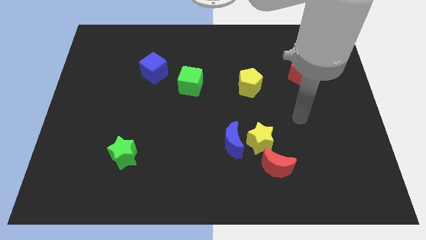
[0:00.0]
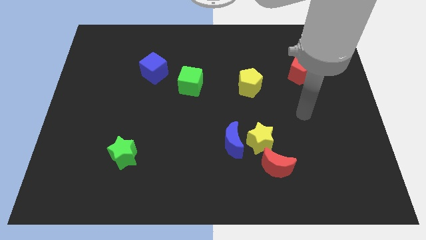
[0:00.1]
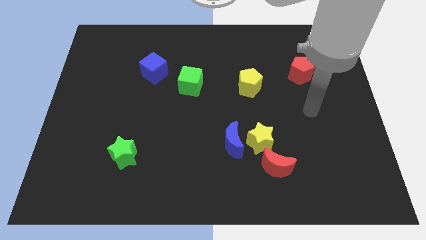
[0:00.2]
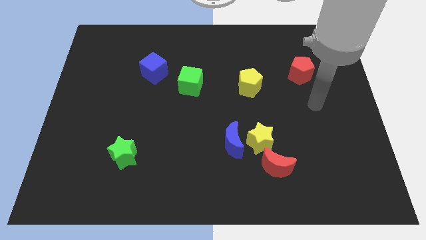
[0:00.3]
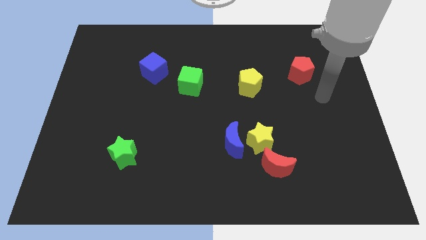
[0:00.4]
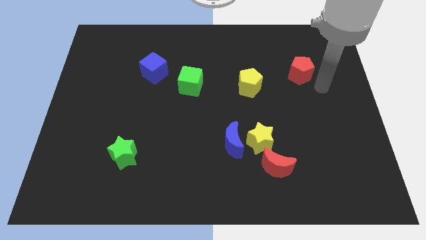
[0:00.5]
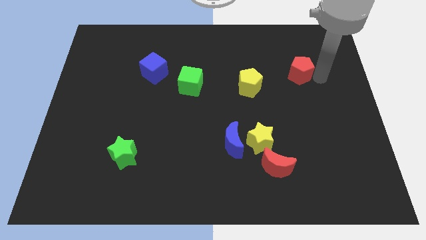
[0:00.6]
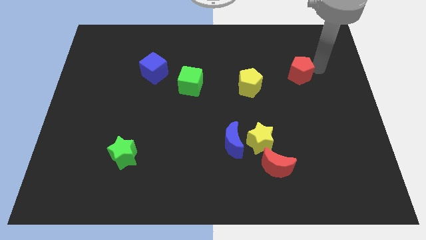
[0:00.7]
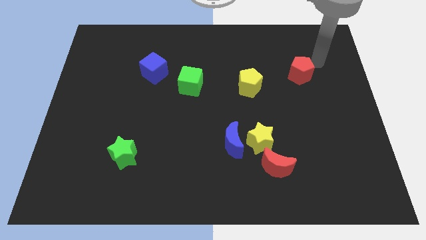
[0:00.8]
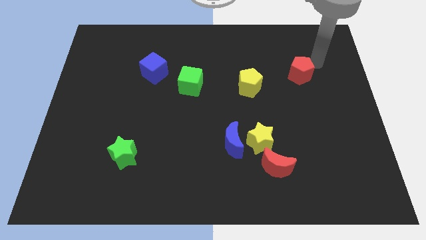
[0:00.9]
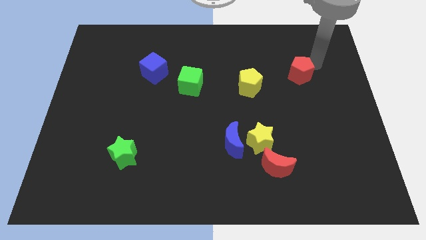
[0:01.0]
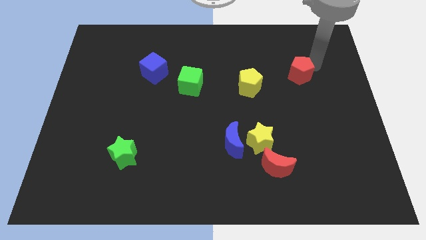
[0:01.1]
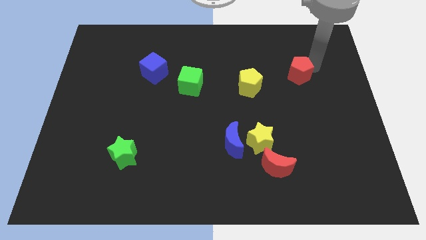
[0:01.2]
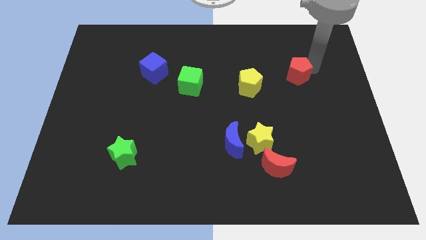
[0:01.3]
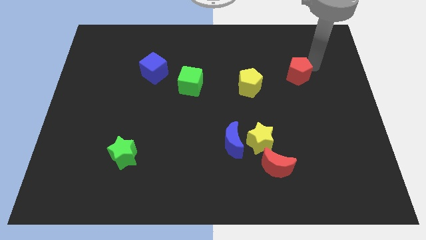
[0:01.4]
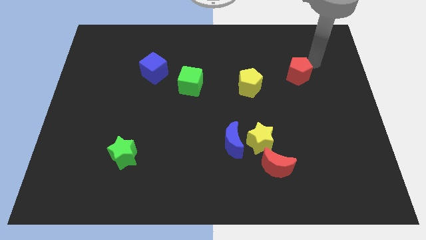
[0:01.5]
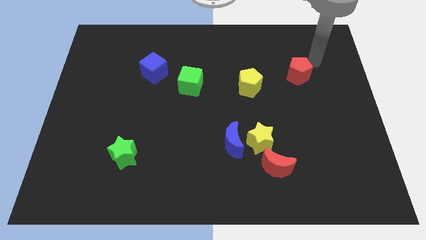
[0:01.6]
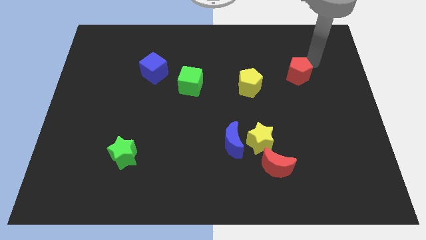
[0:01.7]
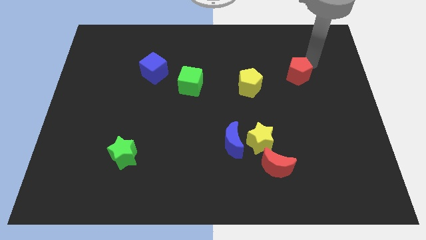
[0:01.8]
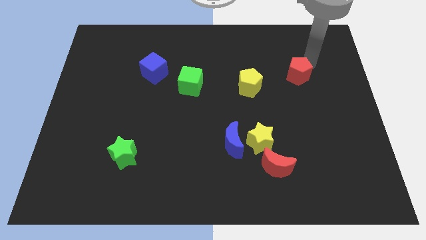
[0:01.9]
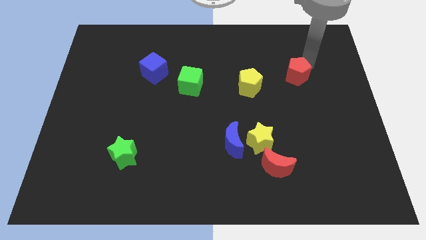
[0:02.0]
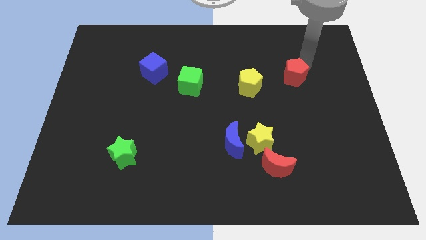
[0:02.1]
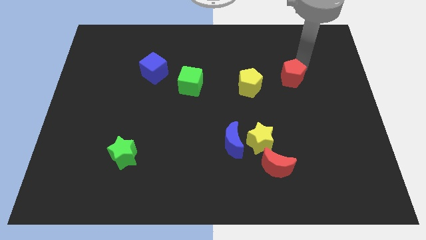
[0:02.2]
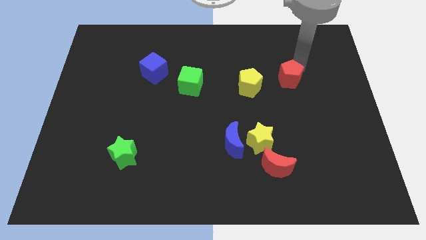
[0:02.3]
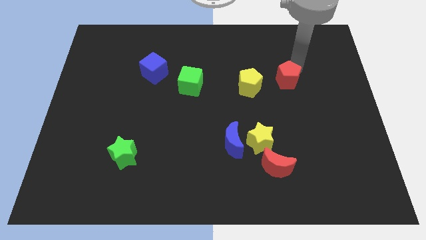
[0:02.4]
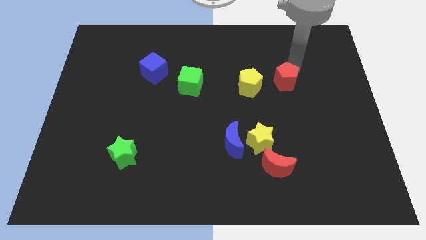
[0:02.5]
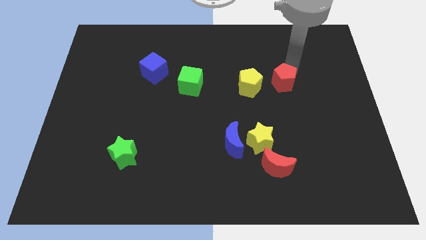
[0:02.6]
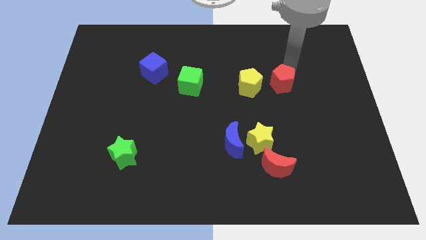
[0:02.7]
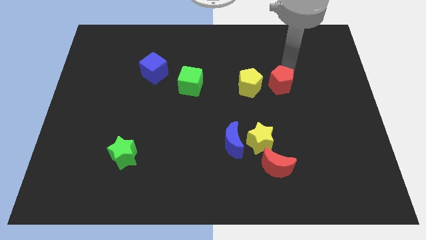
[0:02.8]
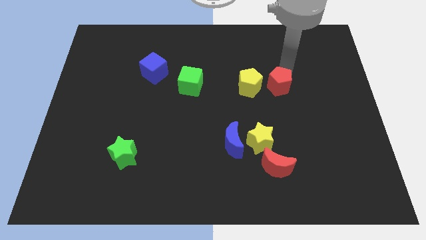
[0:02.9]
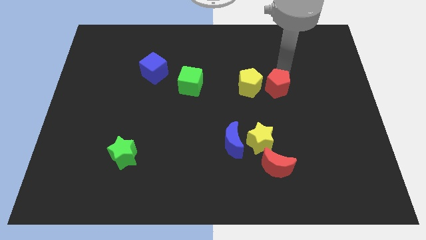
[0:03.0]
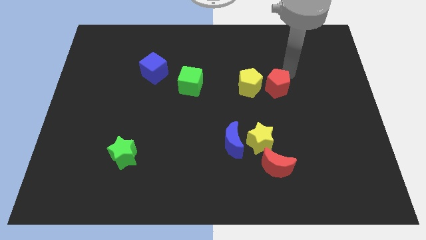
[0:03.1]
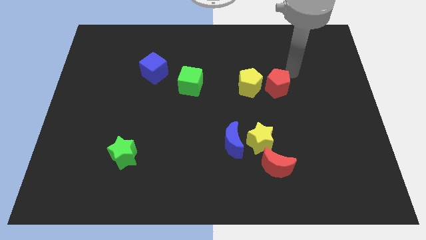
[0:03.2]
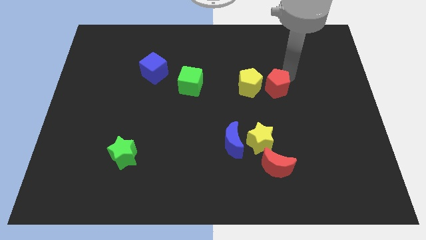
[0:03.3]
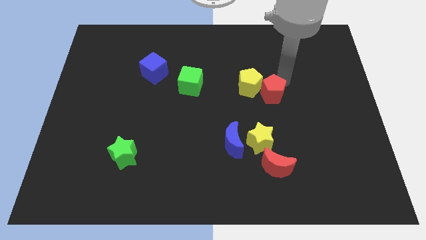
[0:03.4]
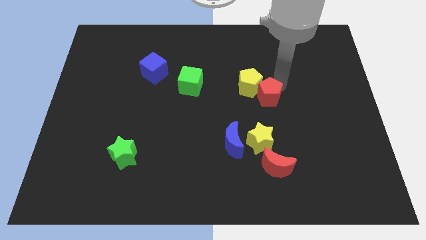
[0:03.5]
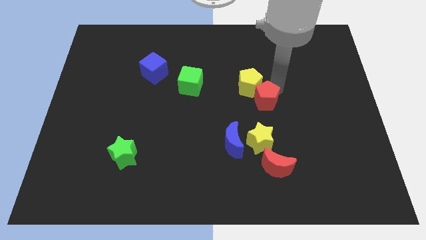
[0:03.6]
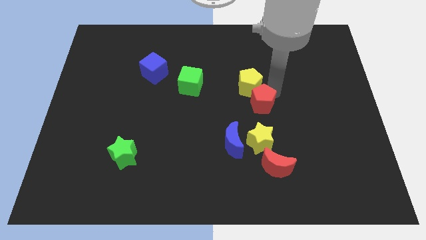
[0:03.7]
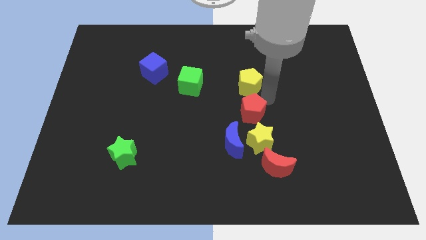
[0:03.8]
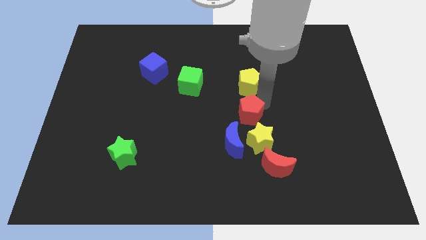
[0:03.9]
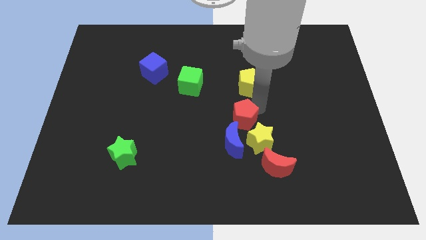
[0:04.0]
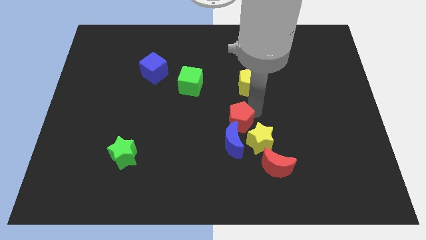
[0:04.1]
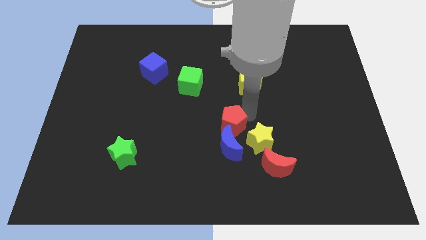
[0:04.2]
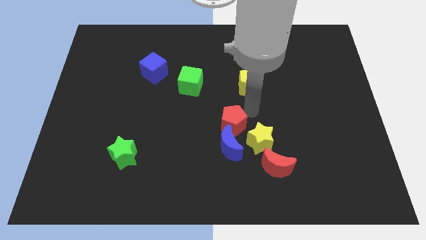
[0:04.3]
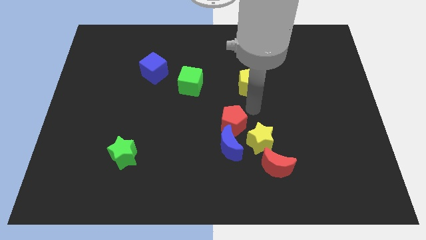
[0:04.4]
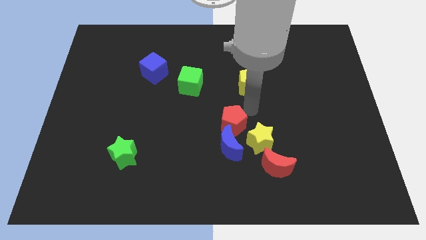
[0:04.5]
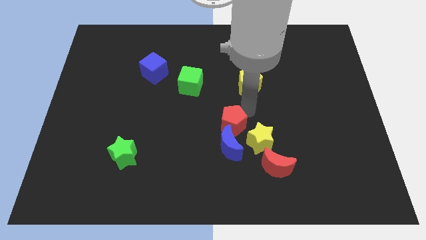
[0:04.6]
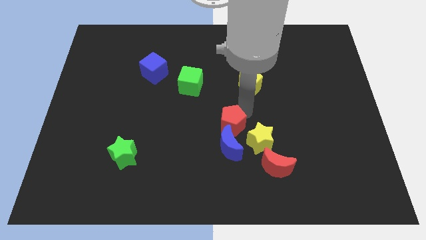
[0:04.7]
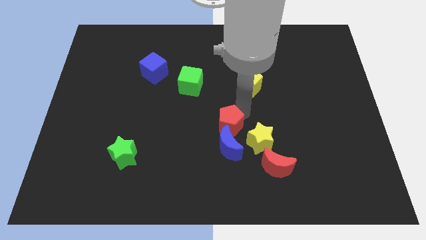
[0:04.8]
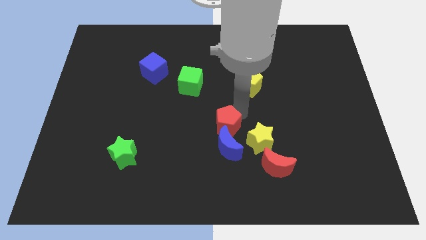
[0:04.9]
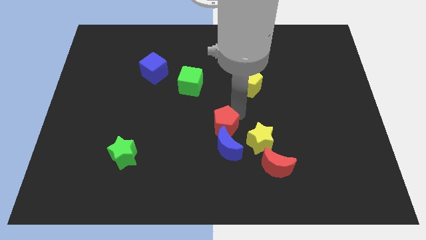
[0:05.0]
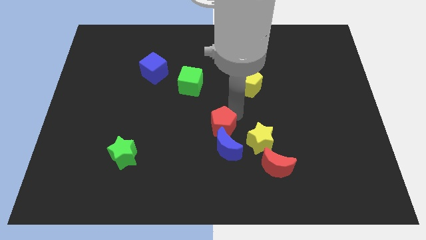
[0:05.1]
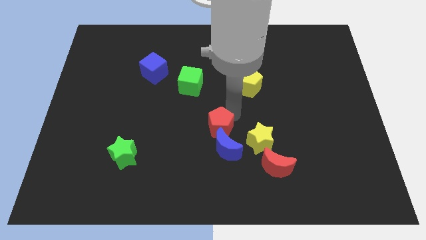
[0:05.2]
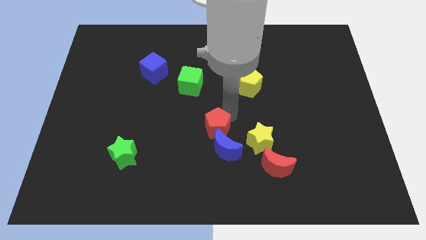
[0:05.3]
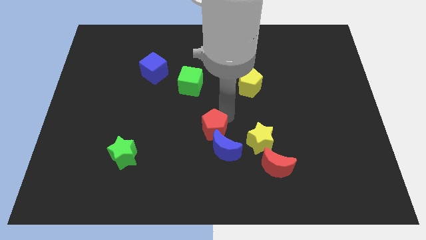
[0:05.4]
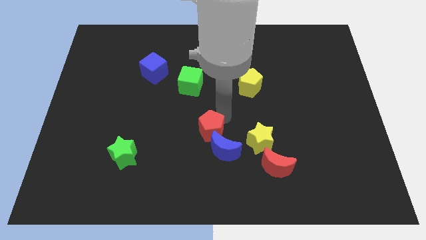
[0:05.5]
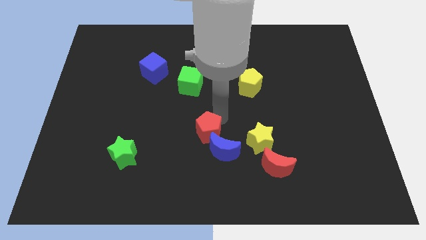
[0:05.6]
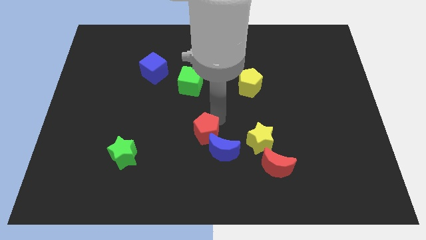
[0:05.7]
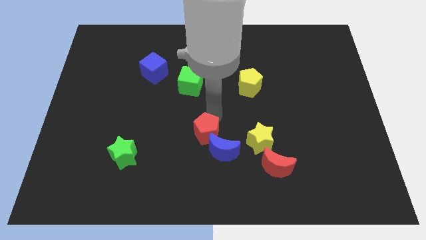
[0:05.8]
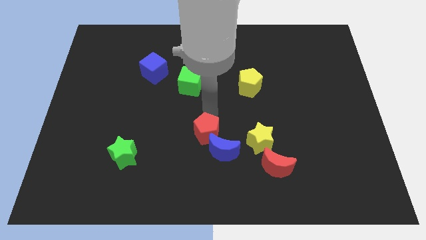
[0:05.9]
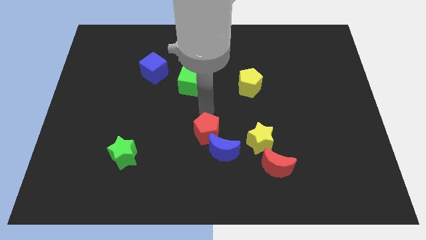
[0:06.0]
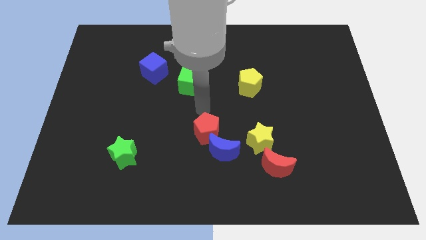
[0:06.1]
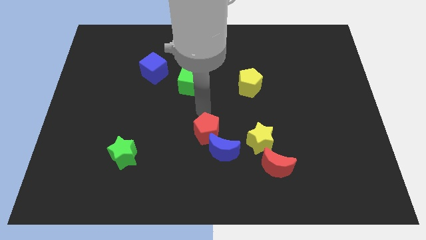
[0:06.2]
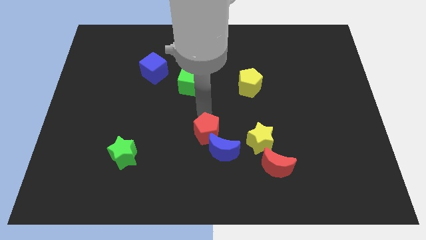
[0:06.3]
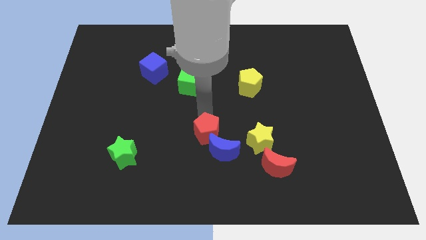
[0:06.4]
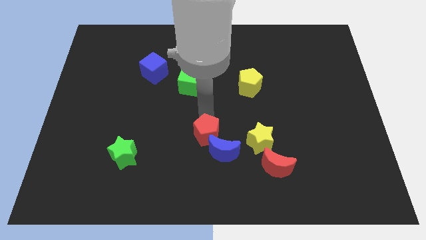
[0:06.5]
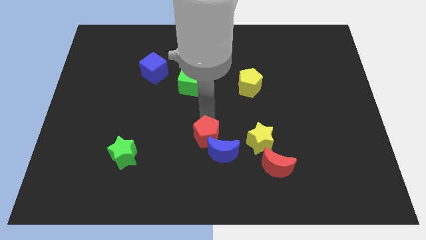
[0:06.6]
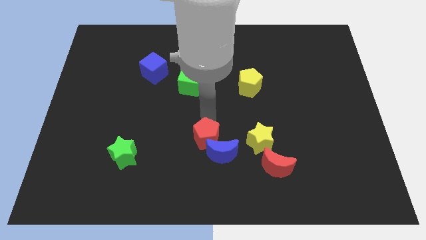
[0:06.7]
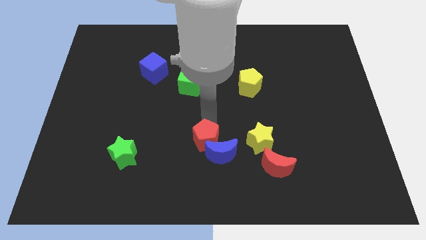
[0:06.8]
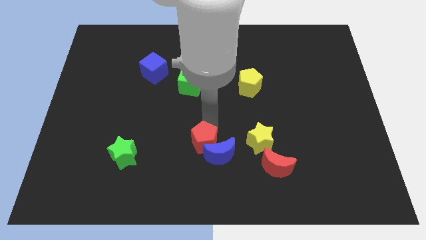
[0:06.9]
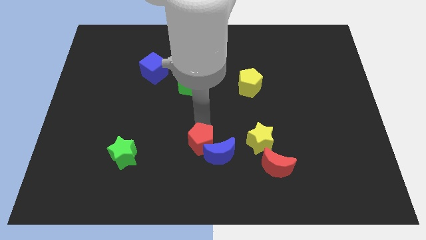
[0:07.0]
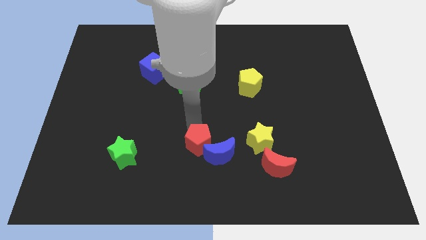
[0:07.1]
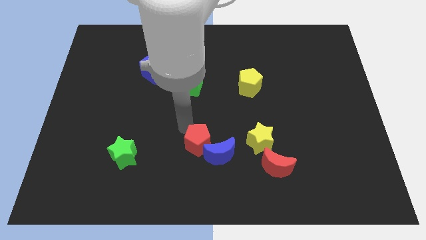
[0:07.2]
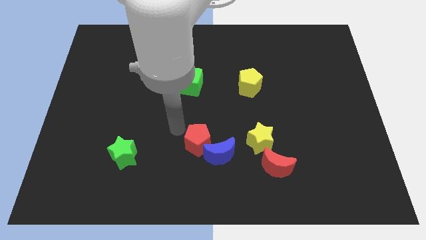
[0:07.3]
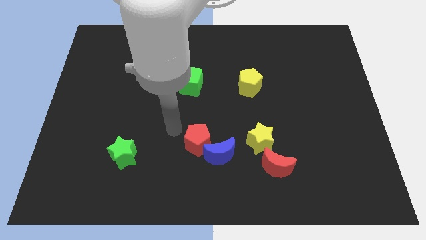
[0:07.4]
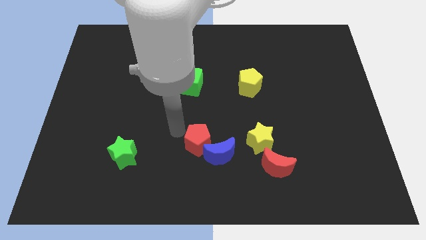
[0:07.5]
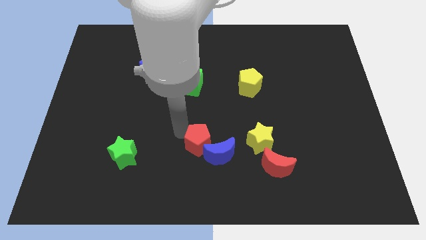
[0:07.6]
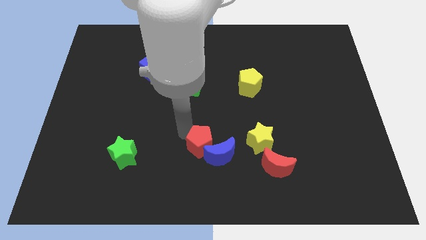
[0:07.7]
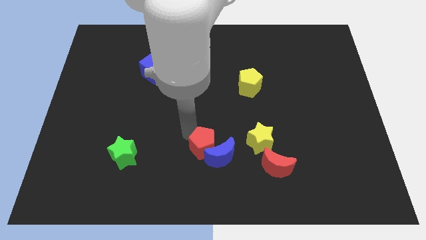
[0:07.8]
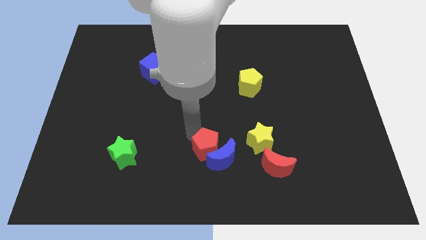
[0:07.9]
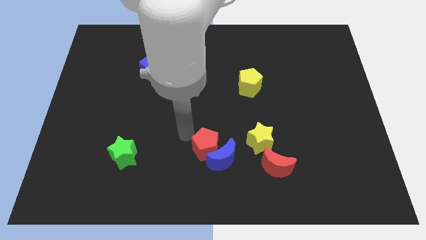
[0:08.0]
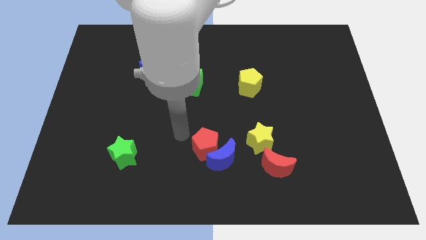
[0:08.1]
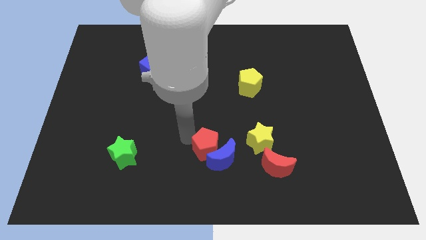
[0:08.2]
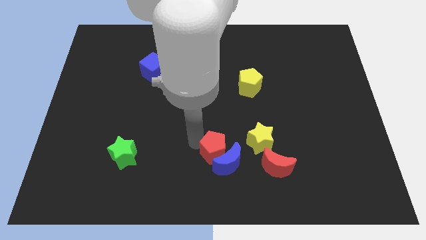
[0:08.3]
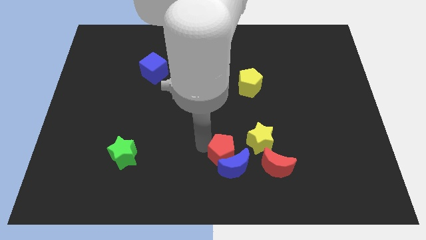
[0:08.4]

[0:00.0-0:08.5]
push the red pentagon to the bottom left side of the yellow star
